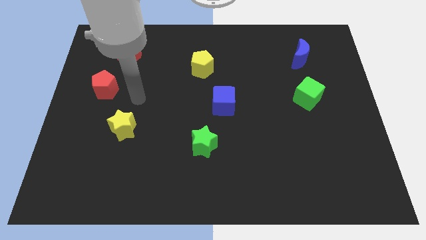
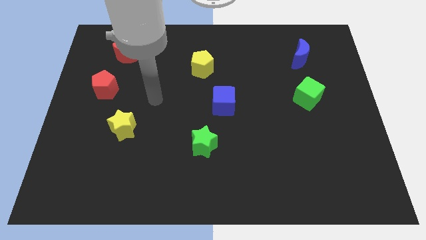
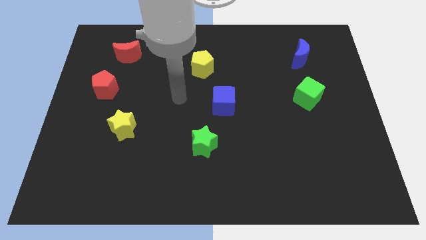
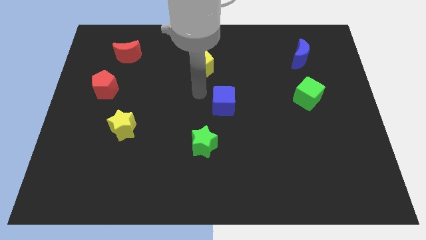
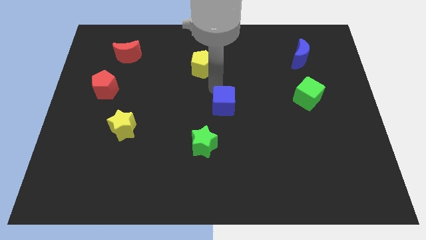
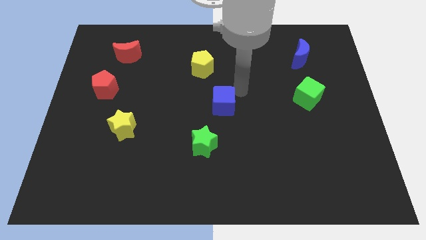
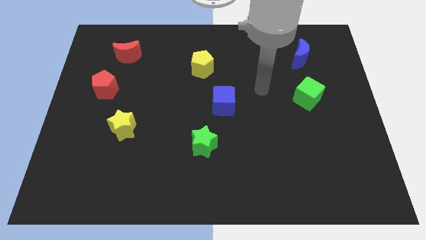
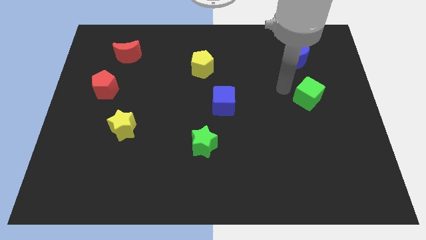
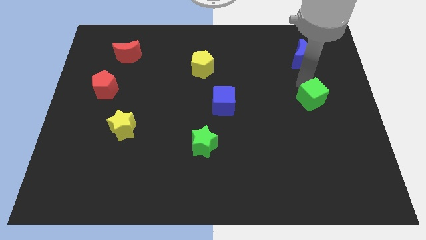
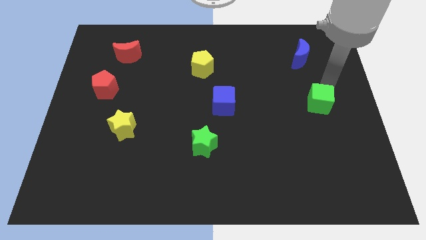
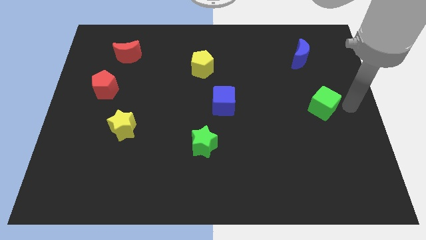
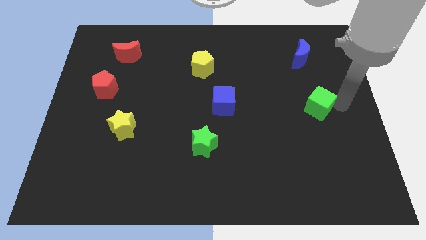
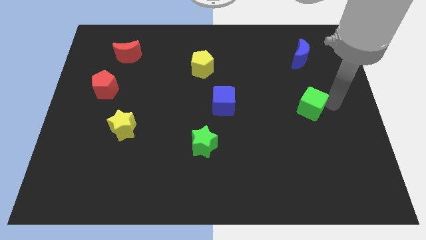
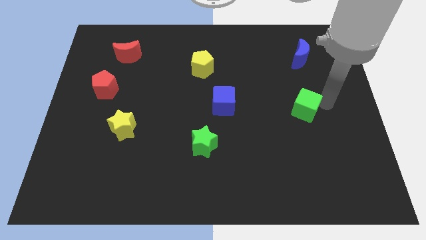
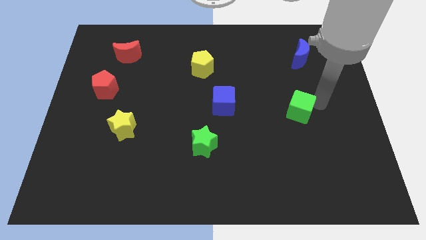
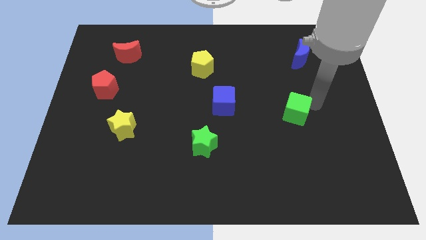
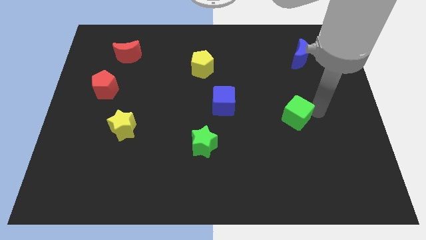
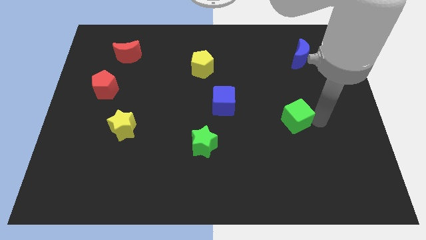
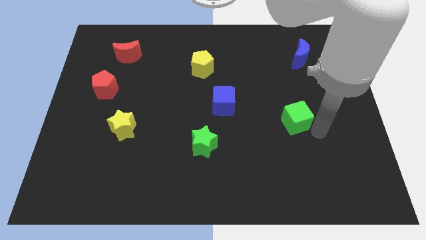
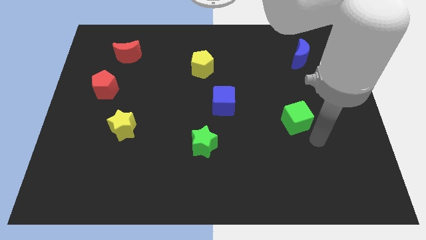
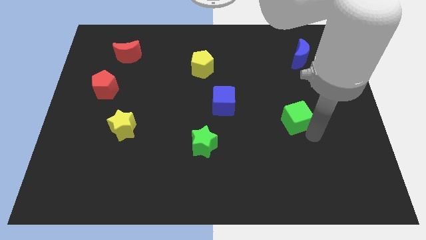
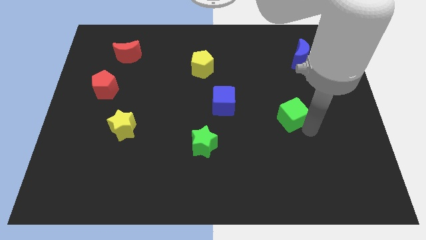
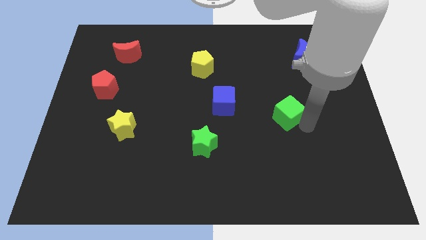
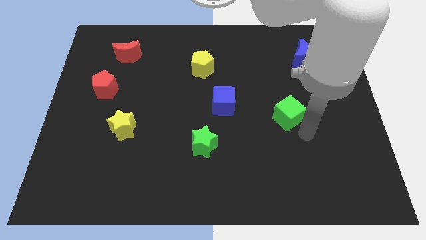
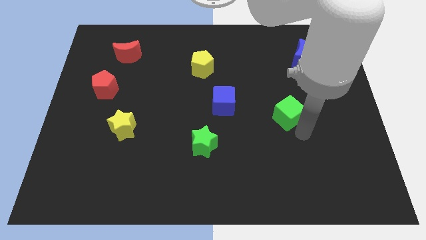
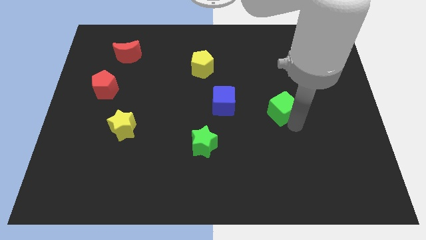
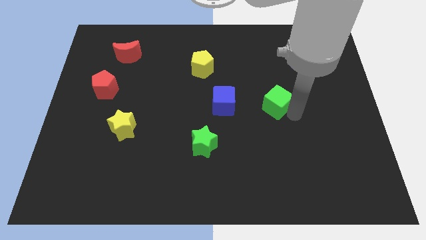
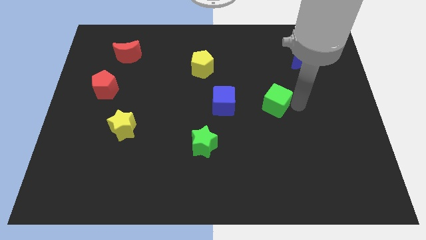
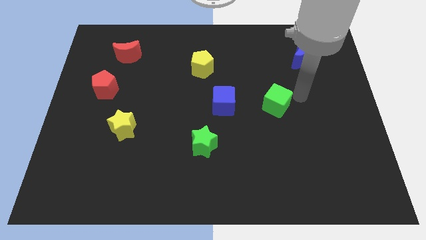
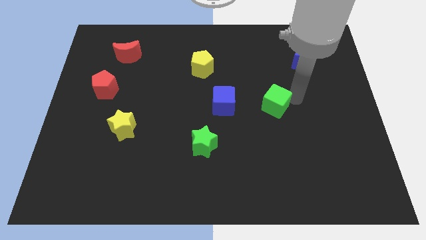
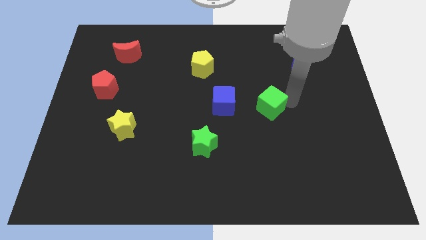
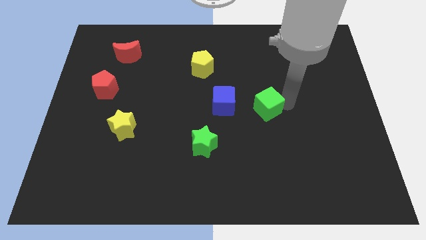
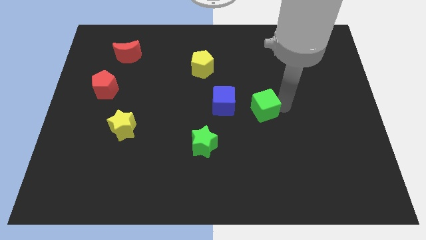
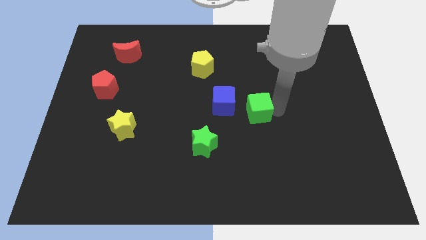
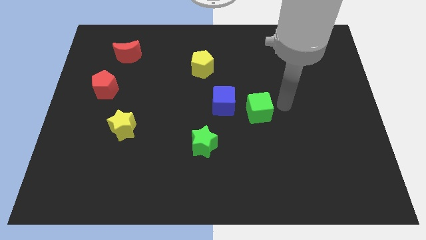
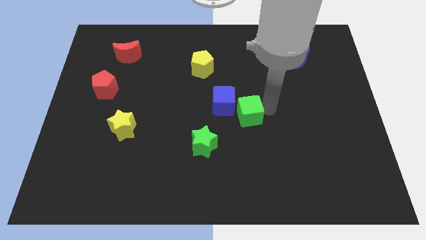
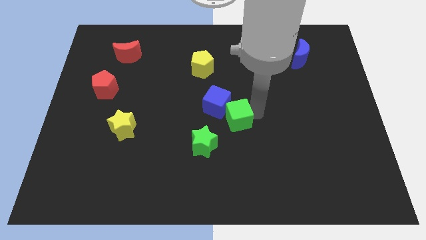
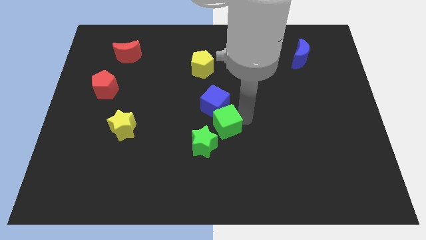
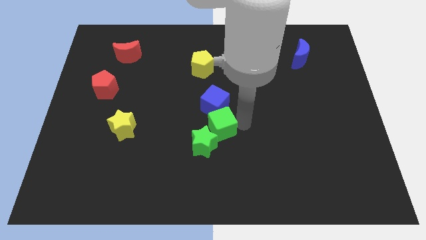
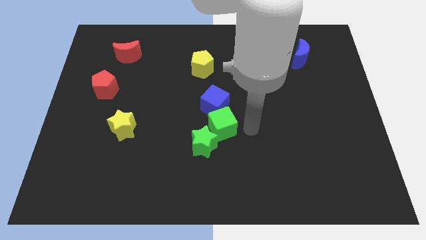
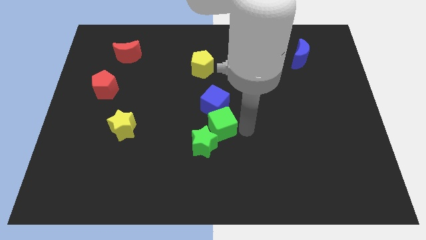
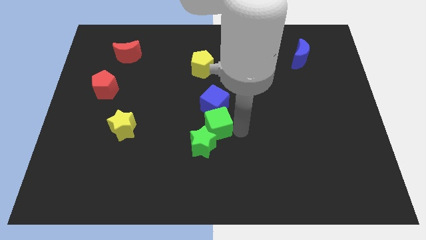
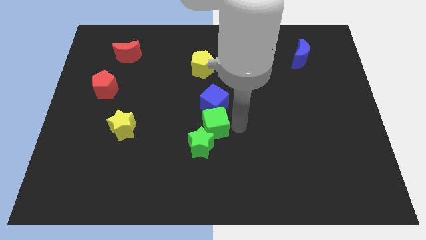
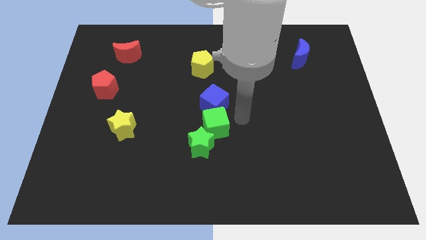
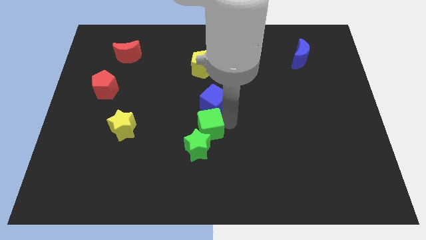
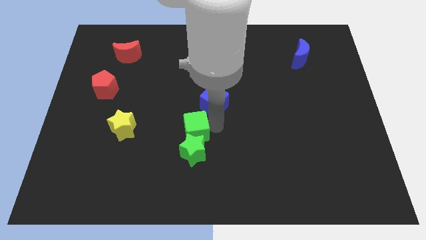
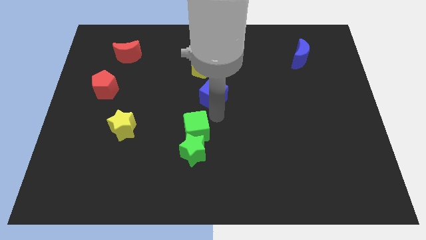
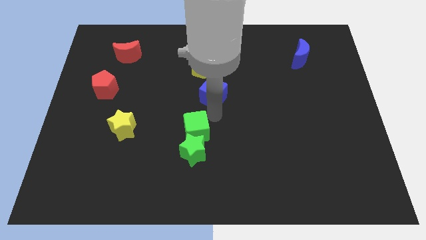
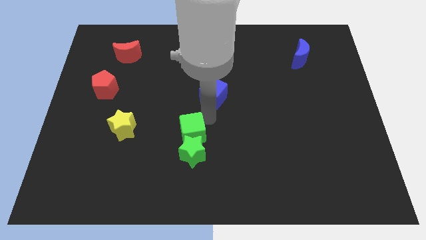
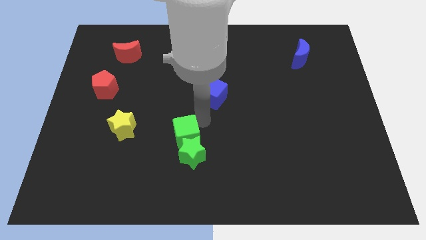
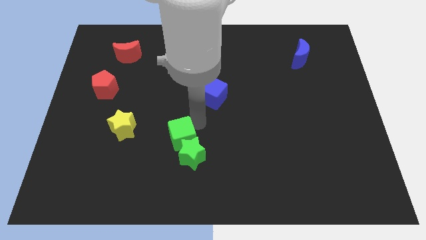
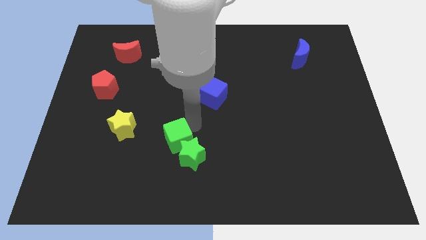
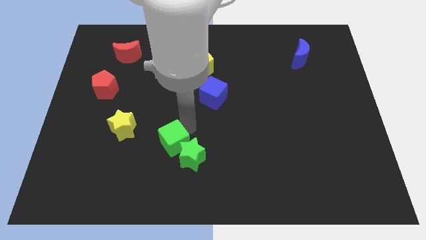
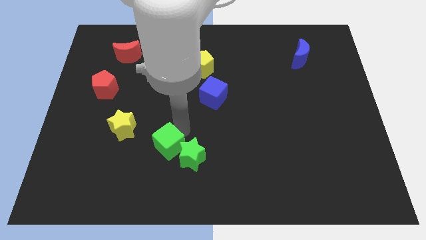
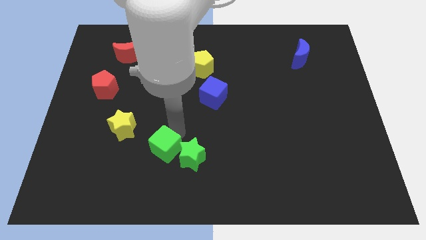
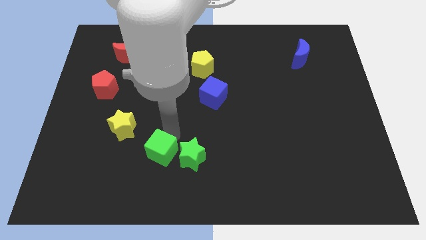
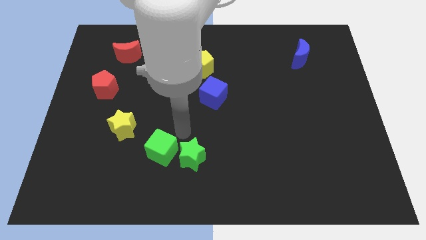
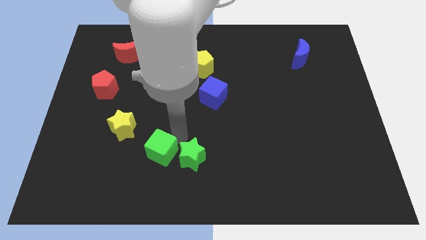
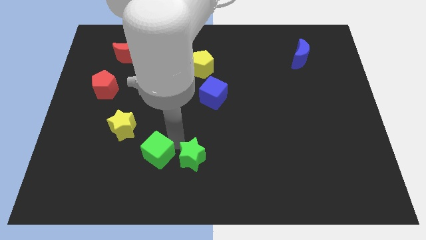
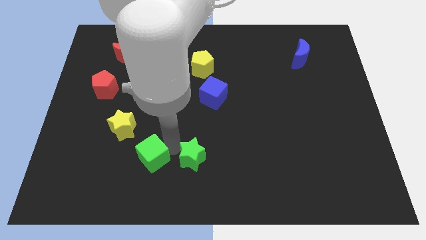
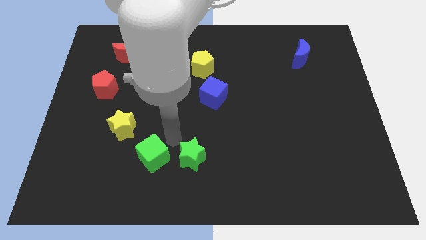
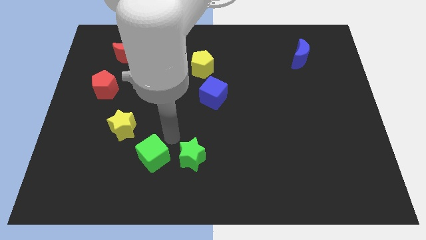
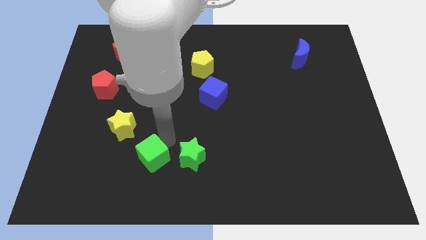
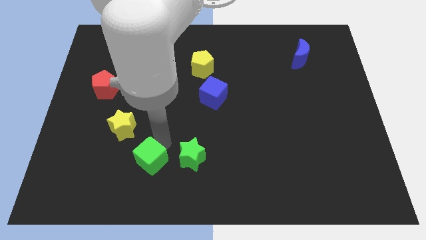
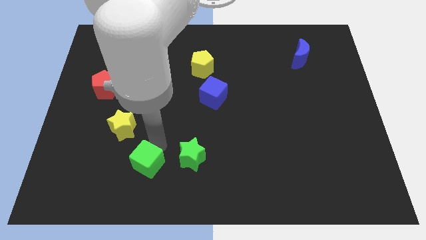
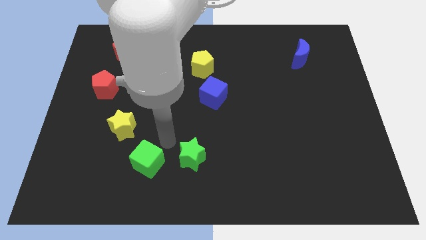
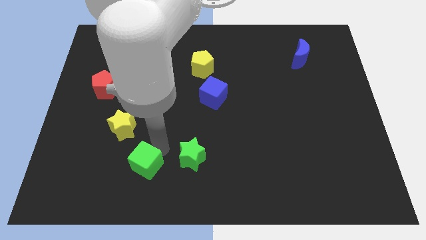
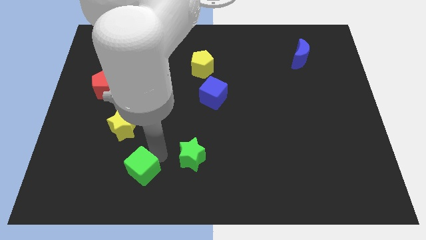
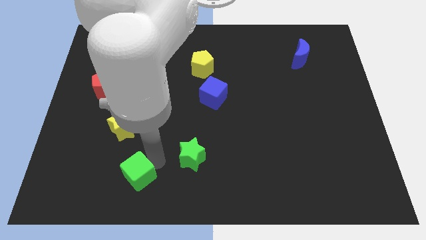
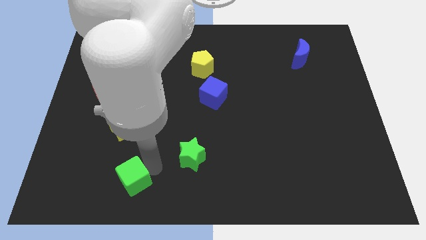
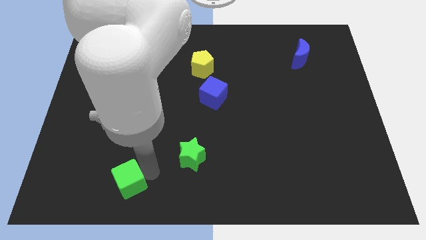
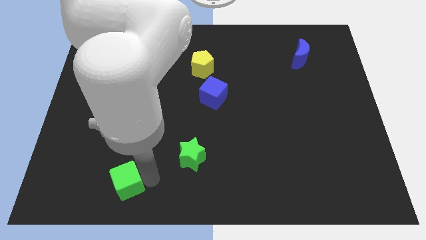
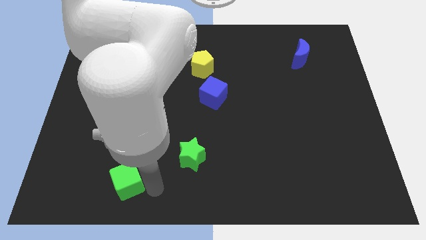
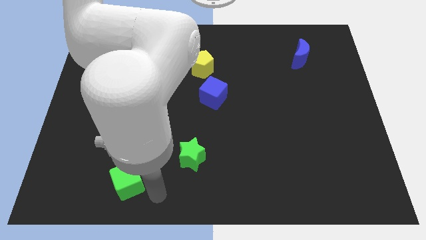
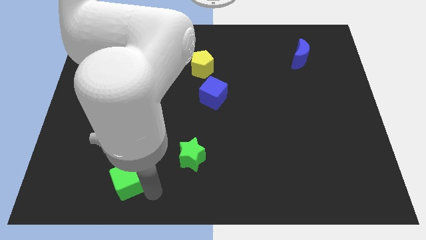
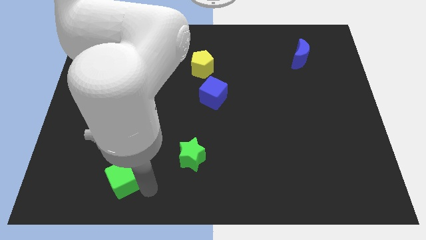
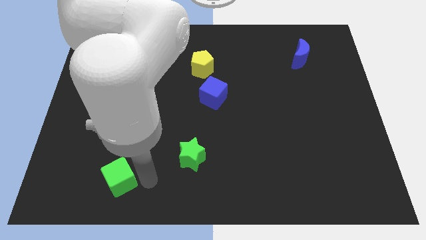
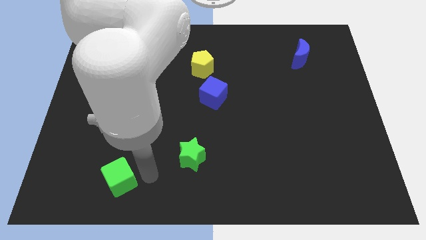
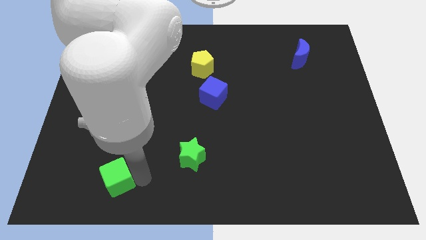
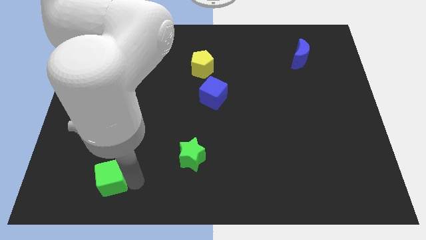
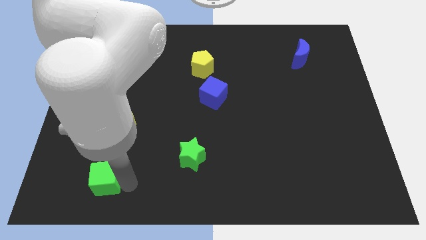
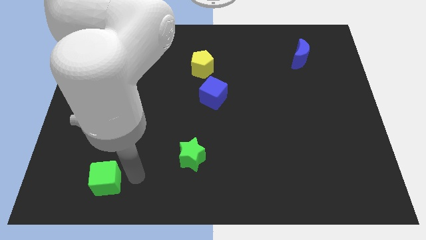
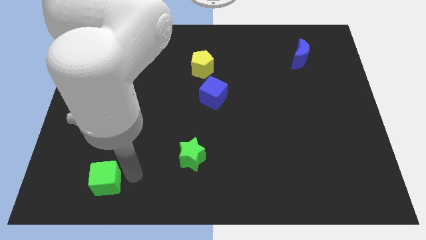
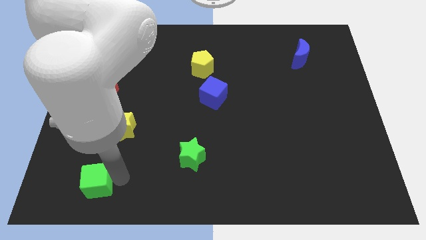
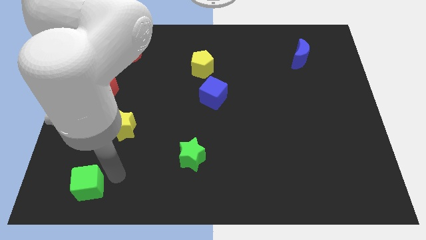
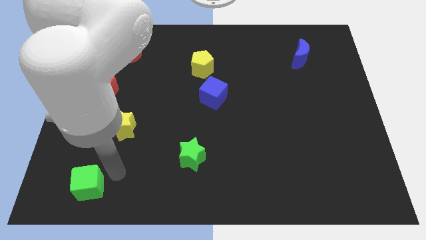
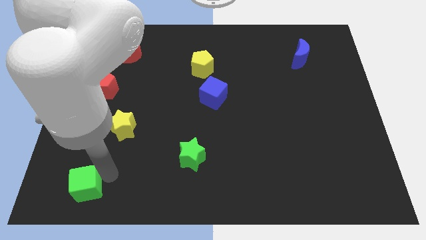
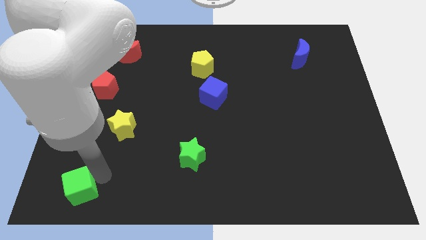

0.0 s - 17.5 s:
slide the green cube to the bottom left corner
